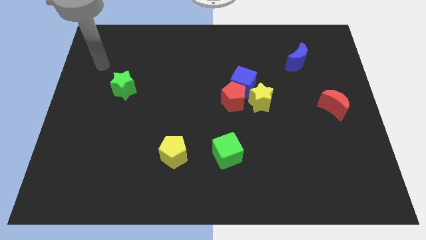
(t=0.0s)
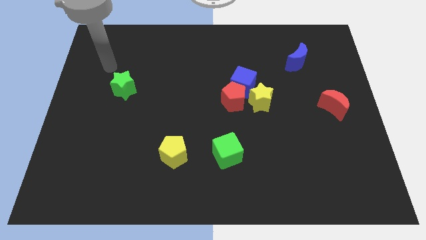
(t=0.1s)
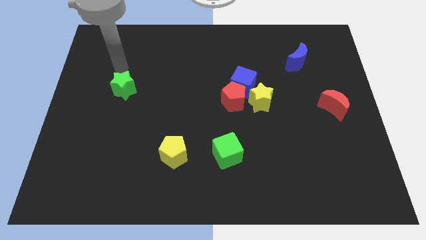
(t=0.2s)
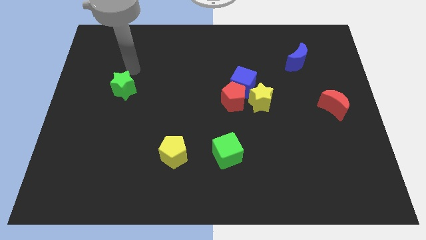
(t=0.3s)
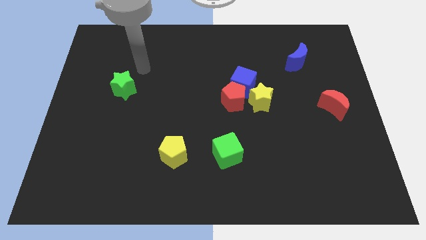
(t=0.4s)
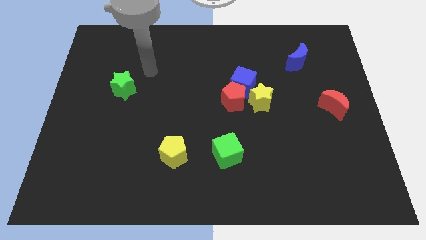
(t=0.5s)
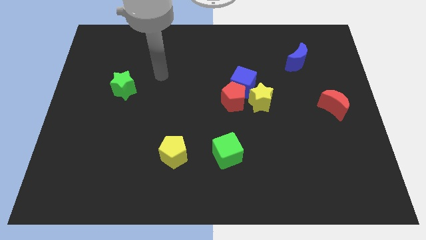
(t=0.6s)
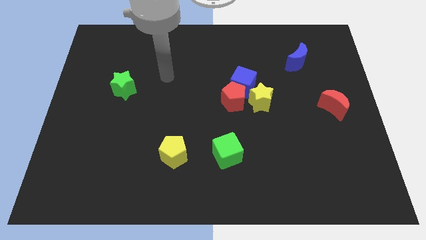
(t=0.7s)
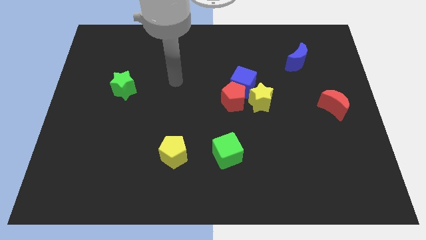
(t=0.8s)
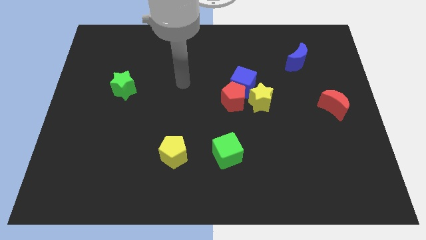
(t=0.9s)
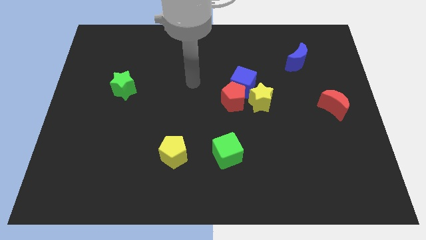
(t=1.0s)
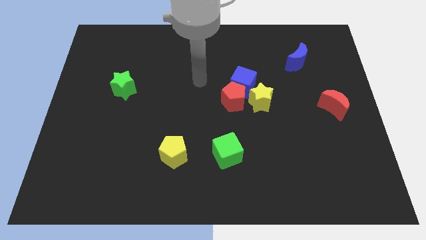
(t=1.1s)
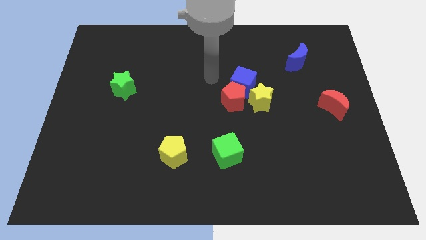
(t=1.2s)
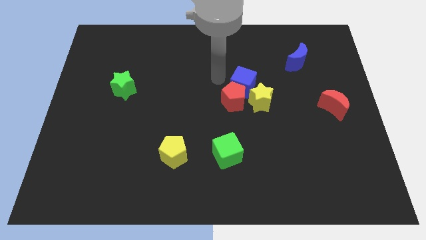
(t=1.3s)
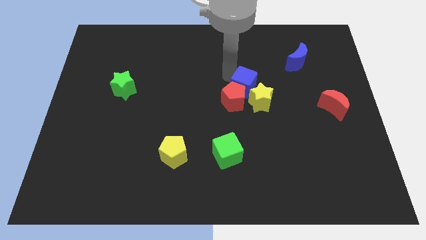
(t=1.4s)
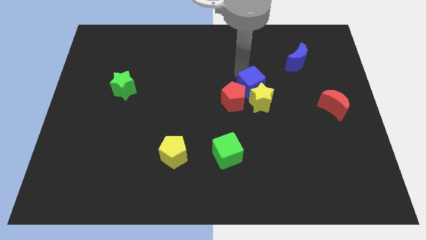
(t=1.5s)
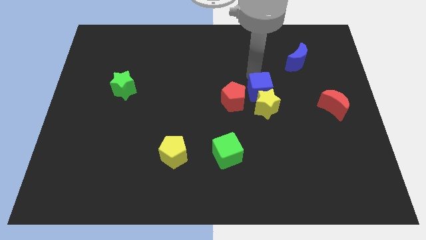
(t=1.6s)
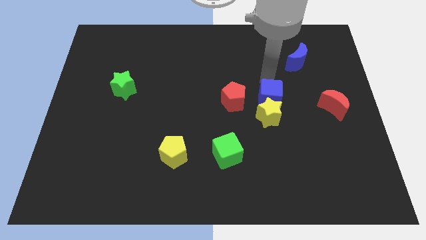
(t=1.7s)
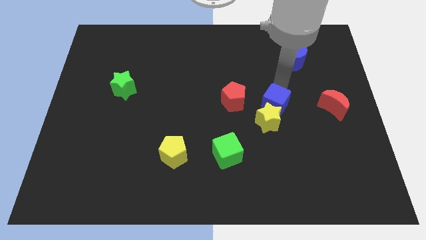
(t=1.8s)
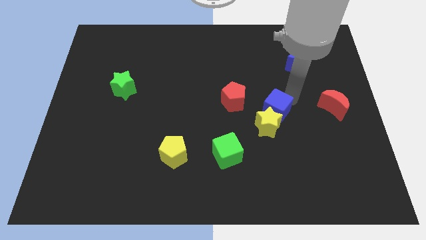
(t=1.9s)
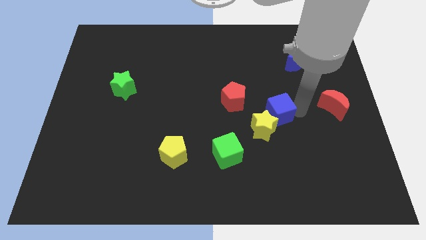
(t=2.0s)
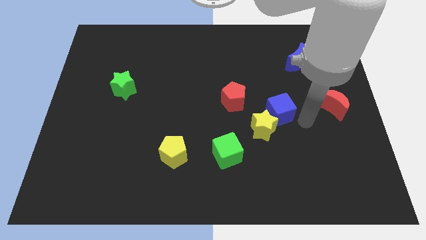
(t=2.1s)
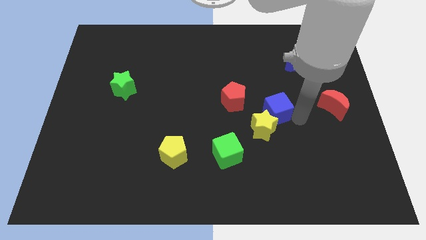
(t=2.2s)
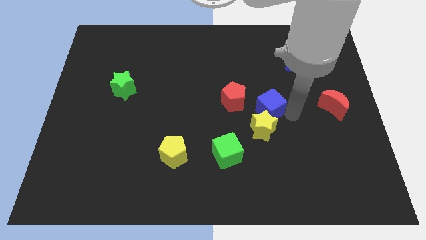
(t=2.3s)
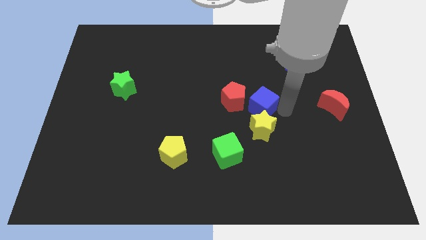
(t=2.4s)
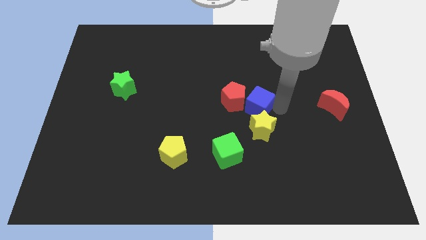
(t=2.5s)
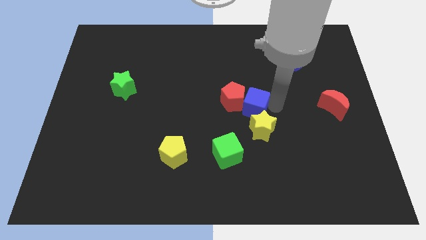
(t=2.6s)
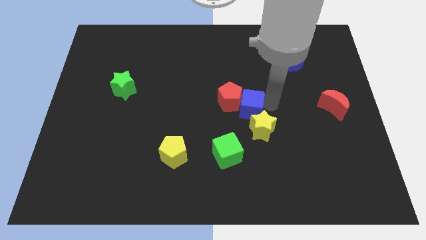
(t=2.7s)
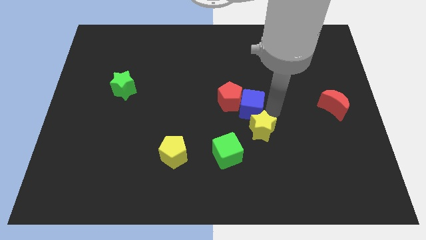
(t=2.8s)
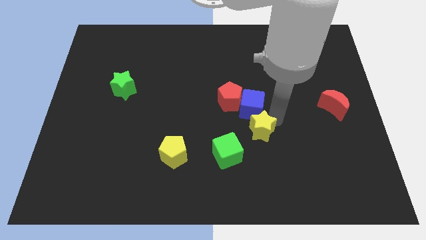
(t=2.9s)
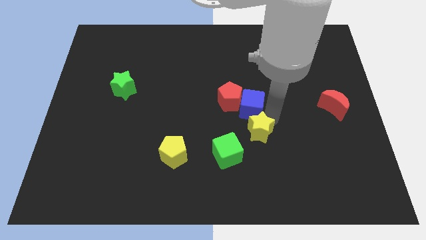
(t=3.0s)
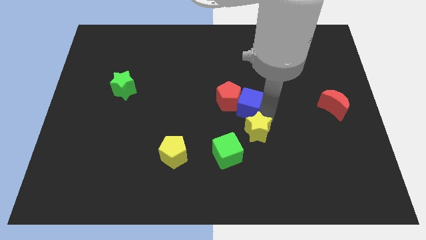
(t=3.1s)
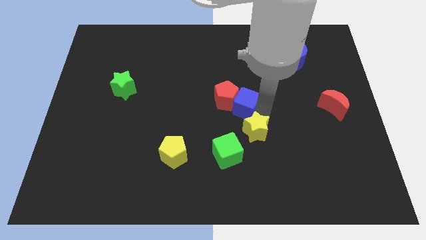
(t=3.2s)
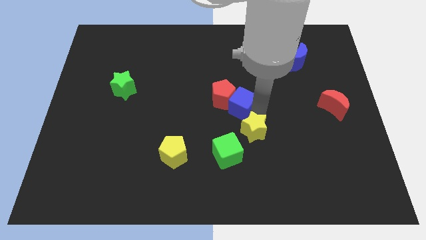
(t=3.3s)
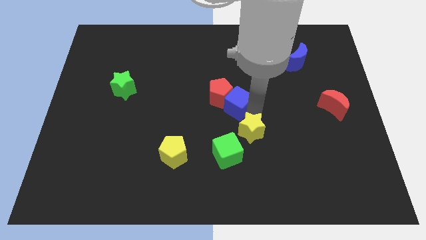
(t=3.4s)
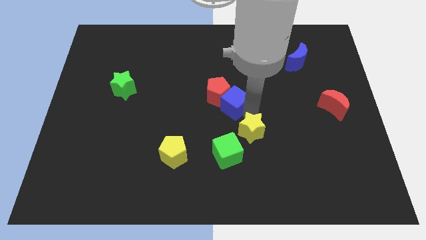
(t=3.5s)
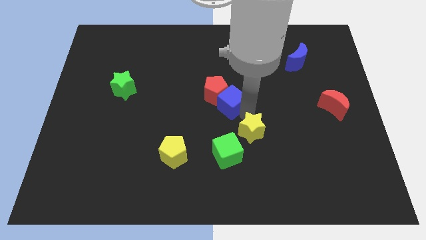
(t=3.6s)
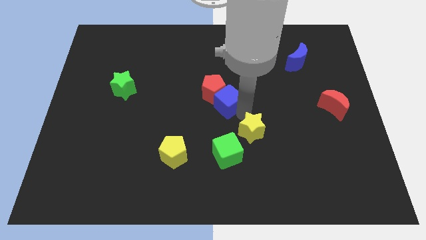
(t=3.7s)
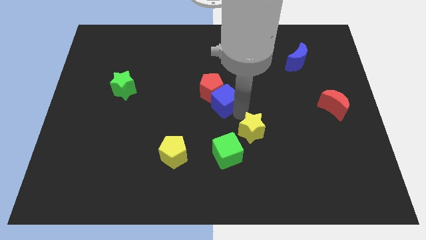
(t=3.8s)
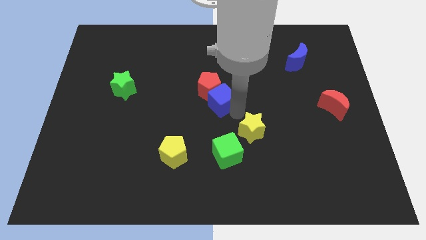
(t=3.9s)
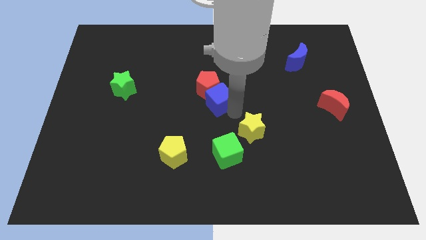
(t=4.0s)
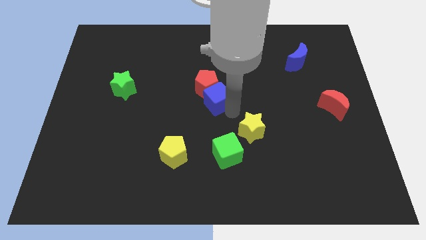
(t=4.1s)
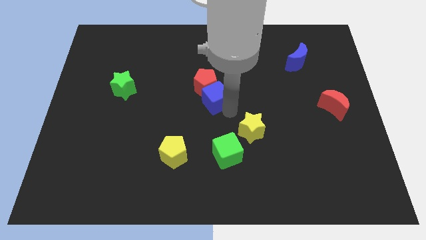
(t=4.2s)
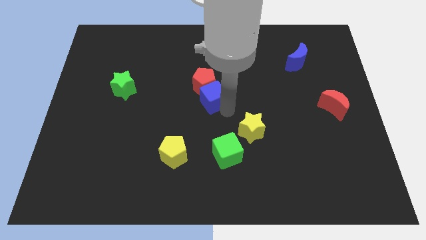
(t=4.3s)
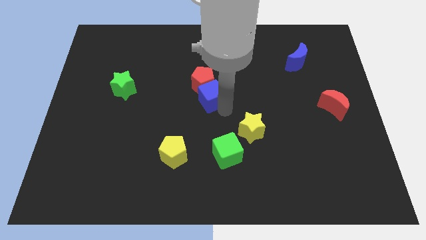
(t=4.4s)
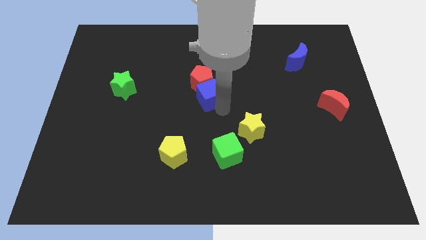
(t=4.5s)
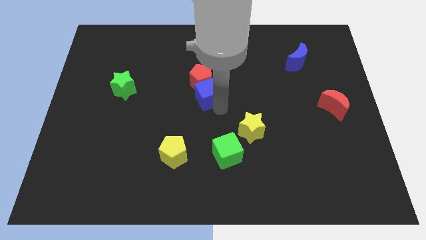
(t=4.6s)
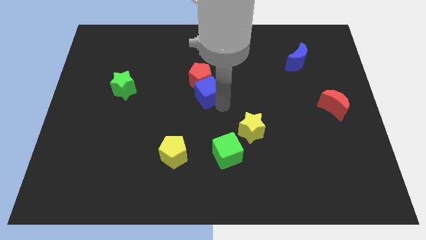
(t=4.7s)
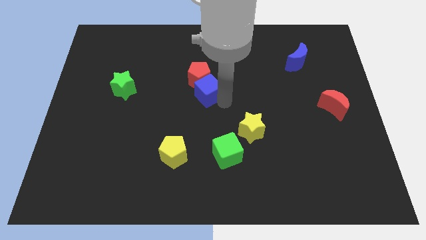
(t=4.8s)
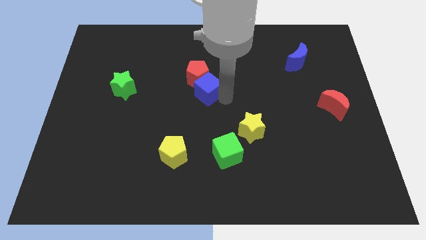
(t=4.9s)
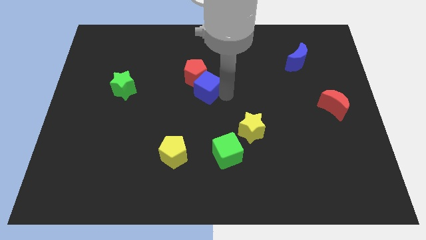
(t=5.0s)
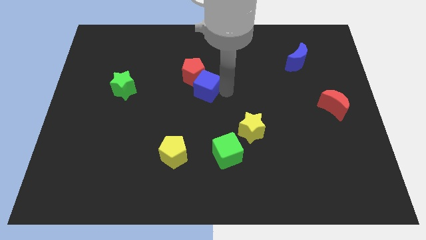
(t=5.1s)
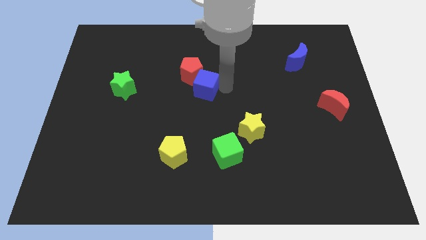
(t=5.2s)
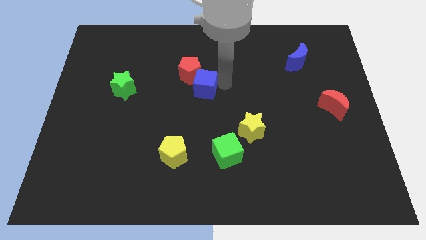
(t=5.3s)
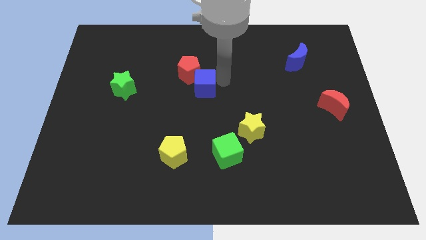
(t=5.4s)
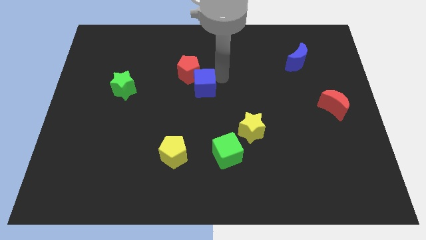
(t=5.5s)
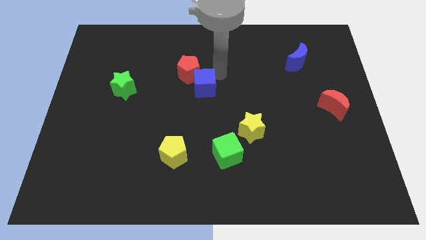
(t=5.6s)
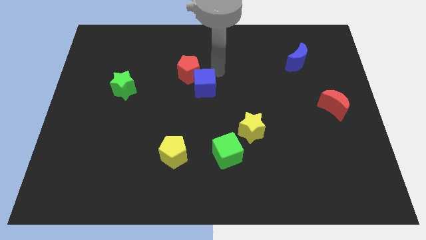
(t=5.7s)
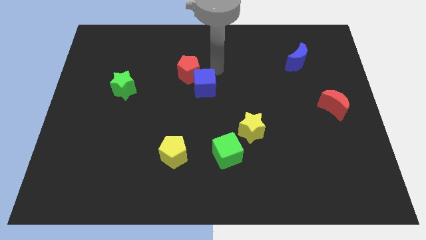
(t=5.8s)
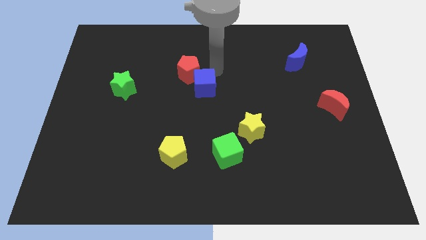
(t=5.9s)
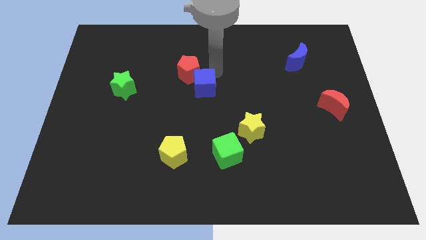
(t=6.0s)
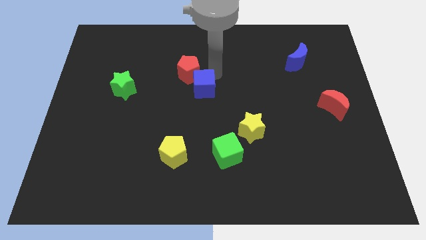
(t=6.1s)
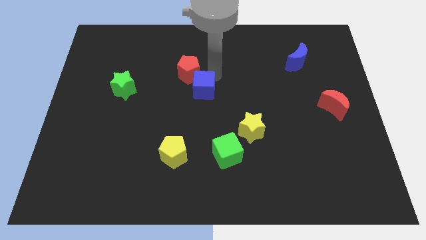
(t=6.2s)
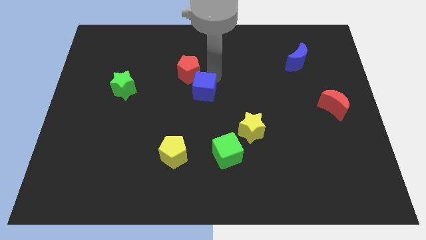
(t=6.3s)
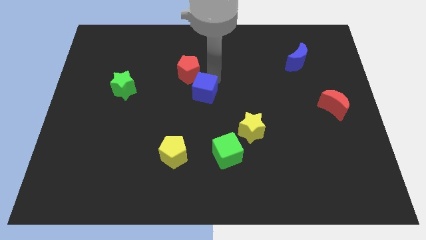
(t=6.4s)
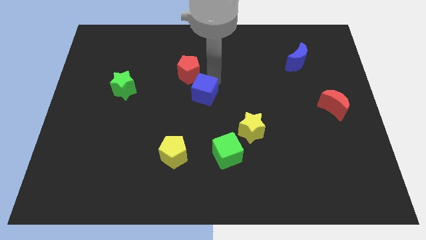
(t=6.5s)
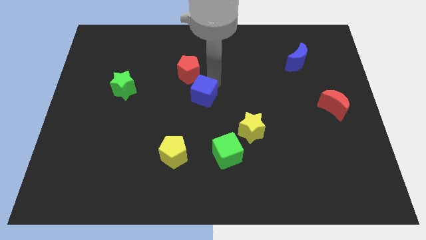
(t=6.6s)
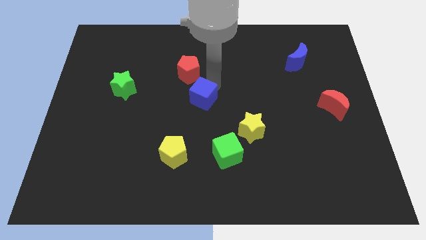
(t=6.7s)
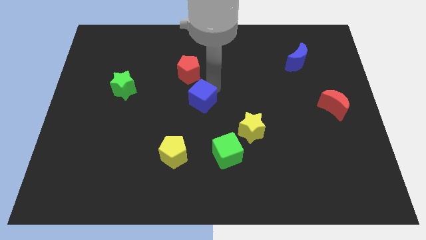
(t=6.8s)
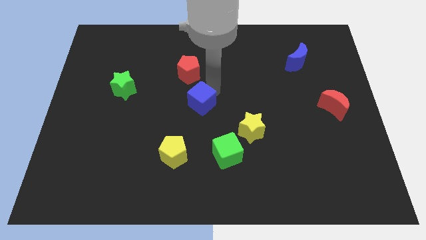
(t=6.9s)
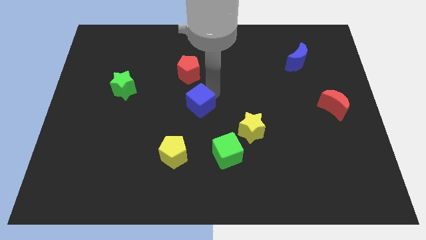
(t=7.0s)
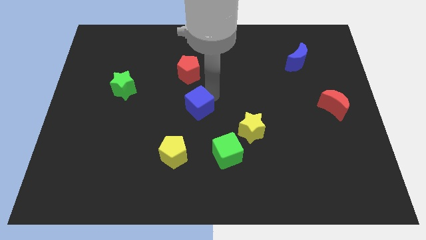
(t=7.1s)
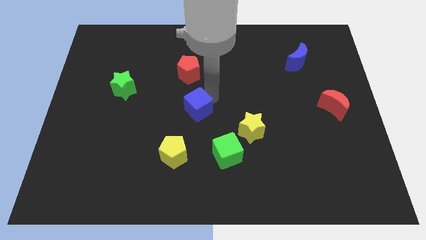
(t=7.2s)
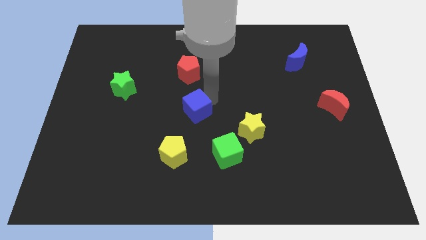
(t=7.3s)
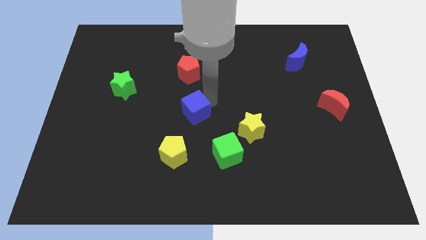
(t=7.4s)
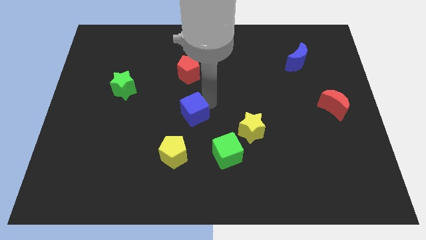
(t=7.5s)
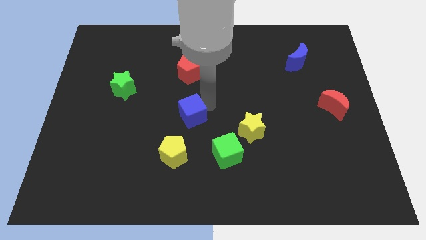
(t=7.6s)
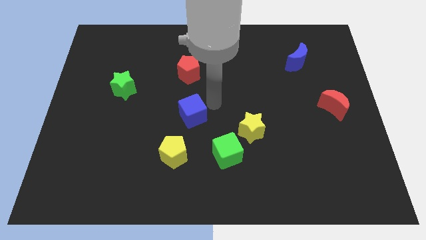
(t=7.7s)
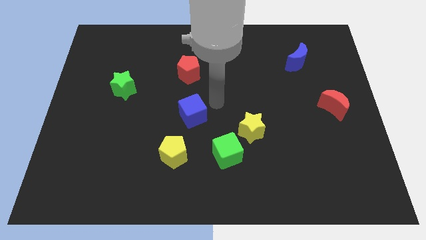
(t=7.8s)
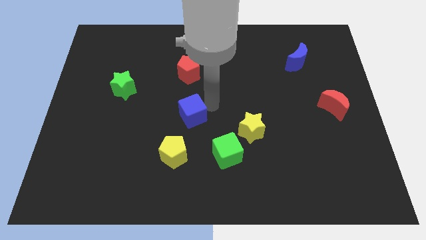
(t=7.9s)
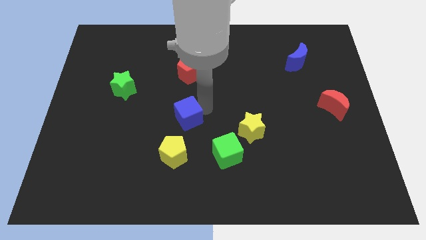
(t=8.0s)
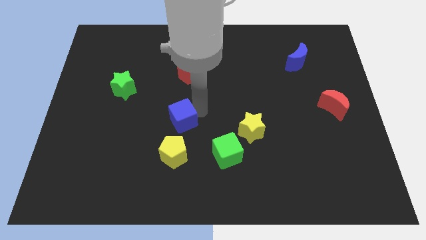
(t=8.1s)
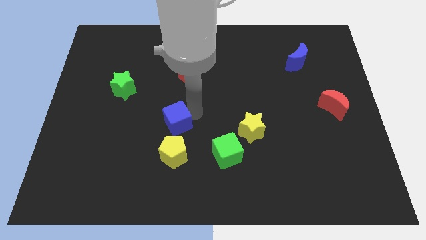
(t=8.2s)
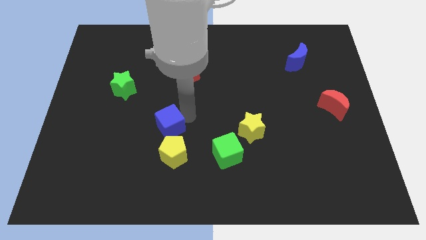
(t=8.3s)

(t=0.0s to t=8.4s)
push the blue cube down and to the left diagonally
